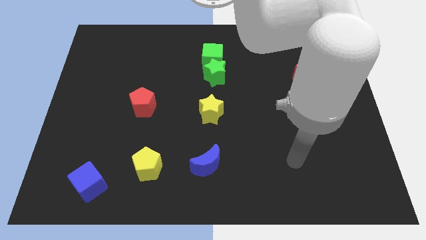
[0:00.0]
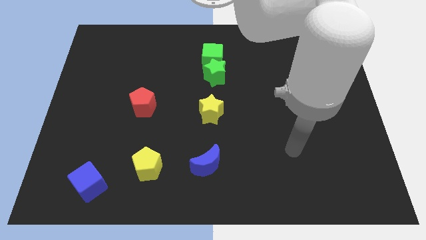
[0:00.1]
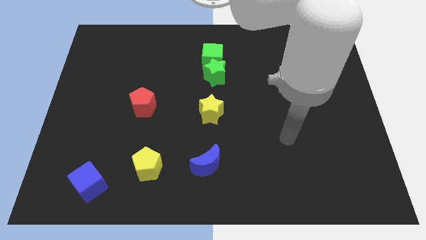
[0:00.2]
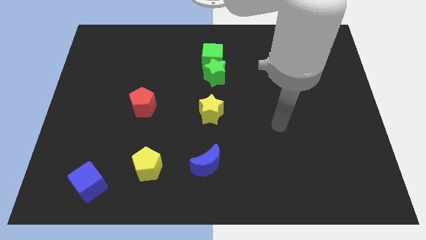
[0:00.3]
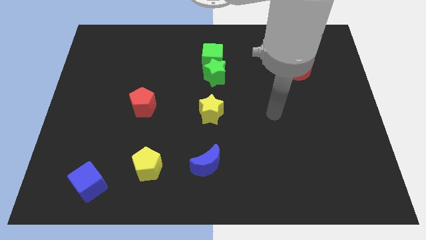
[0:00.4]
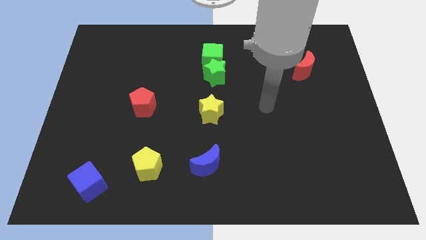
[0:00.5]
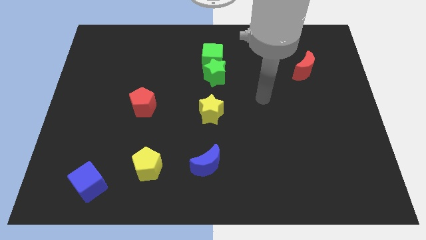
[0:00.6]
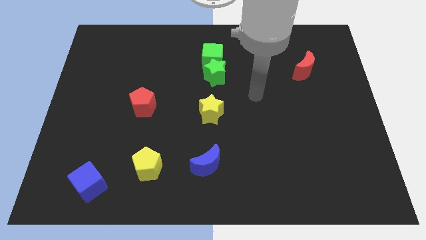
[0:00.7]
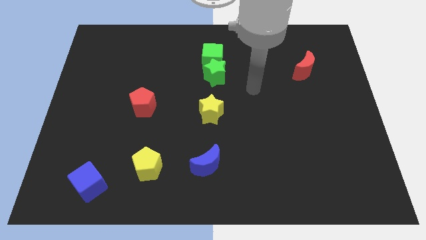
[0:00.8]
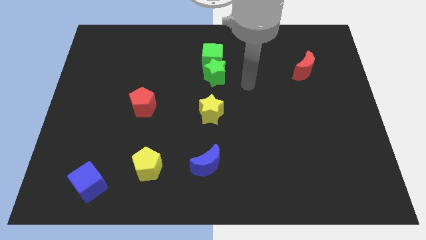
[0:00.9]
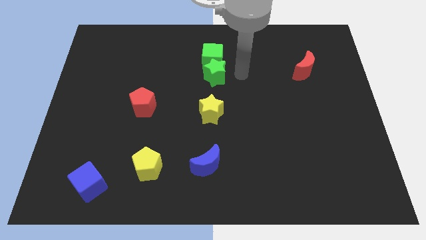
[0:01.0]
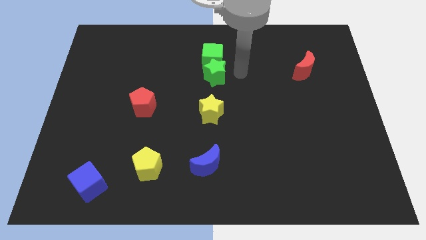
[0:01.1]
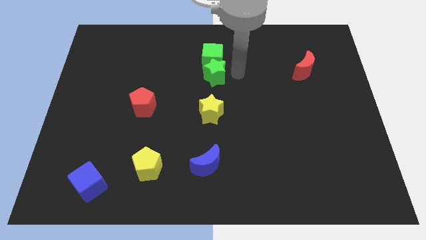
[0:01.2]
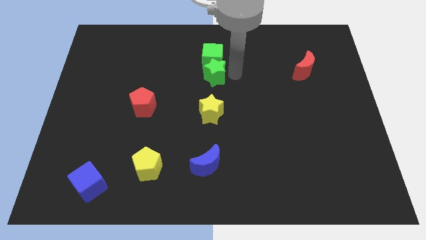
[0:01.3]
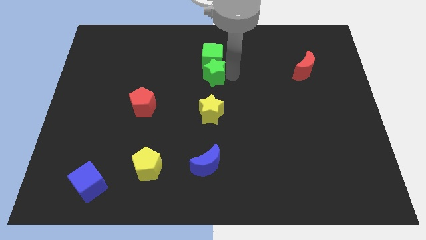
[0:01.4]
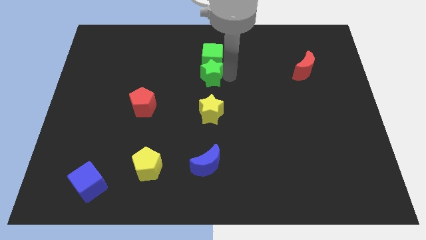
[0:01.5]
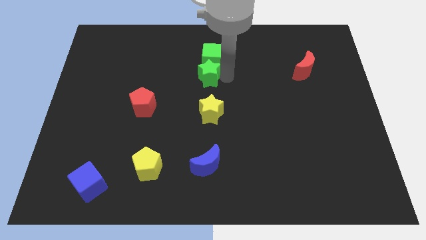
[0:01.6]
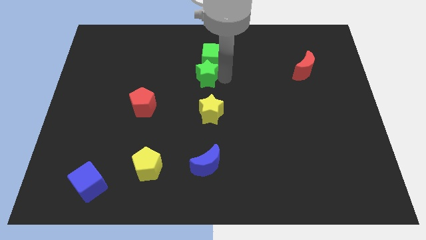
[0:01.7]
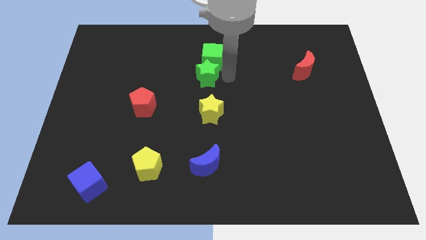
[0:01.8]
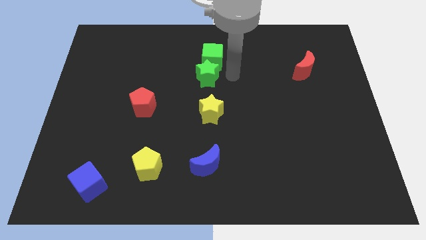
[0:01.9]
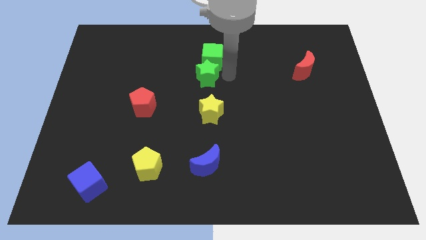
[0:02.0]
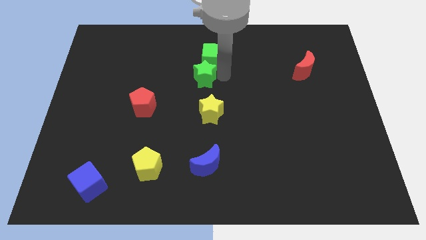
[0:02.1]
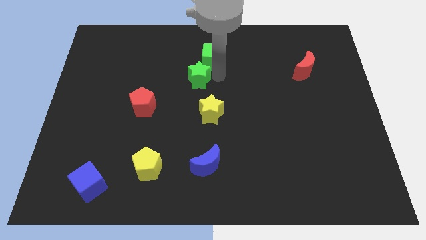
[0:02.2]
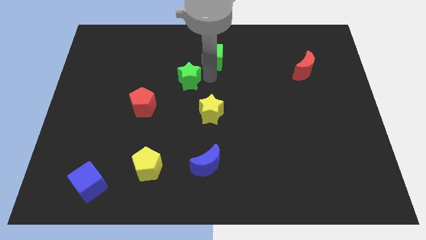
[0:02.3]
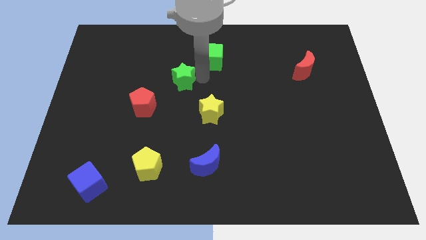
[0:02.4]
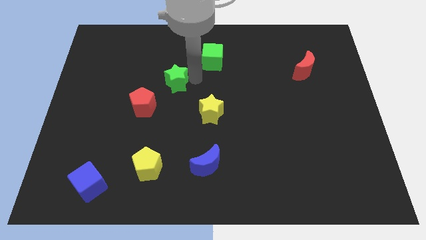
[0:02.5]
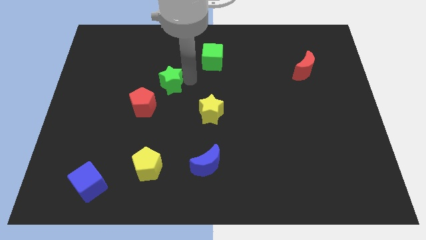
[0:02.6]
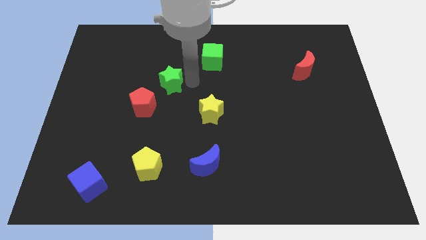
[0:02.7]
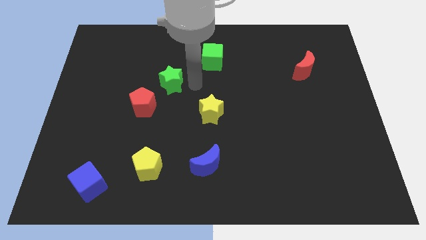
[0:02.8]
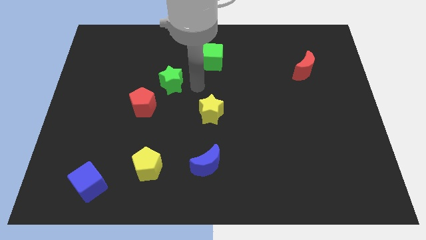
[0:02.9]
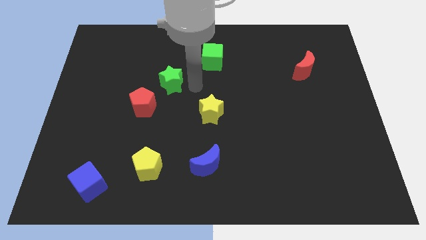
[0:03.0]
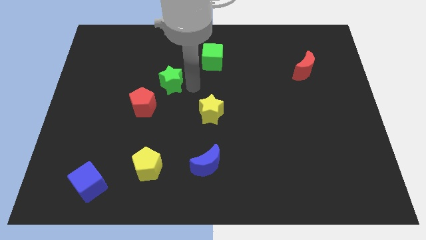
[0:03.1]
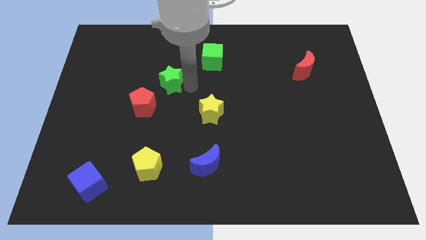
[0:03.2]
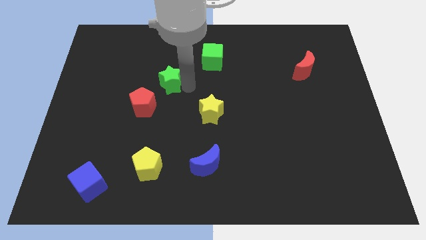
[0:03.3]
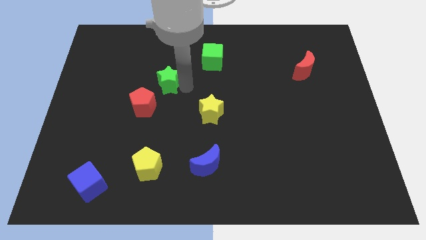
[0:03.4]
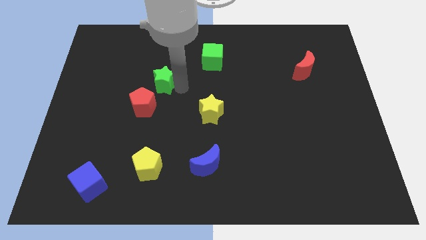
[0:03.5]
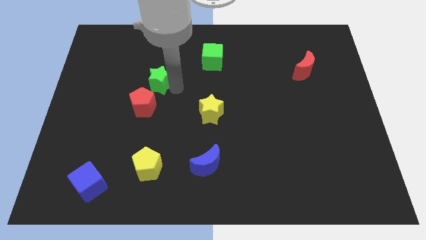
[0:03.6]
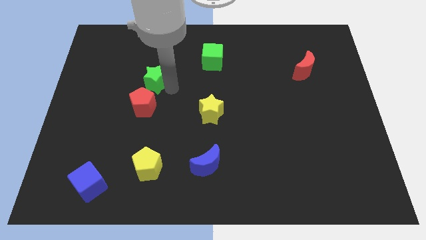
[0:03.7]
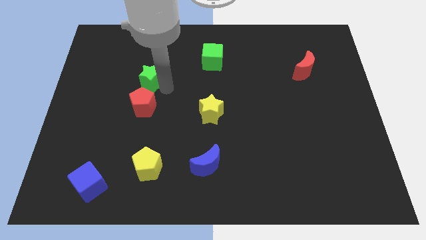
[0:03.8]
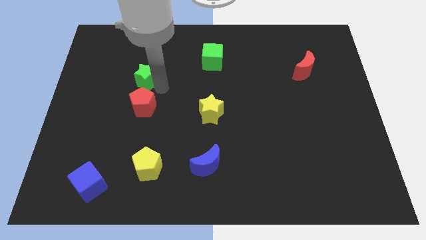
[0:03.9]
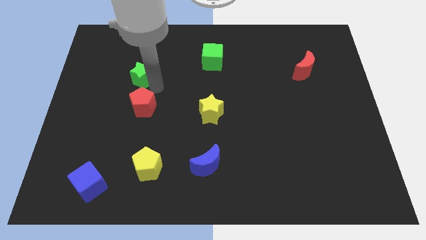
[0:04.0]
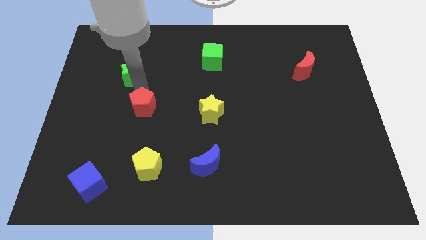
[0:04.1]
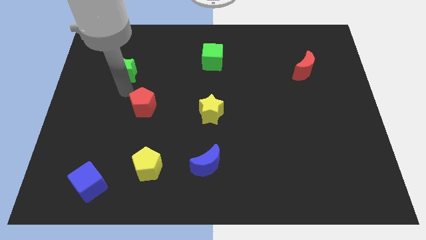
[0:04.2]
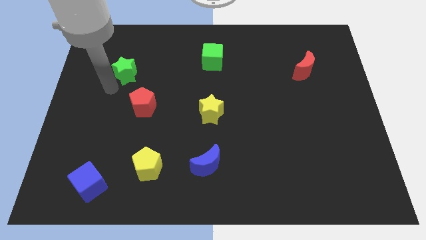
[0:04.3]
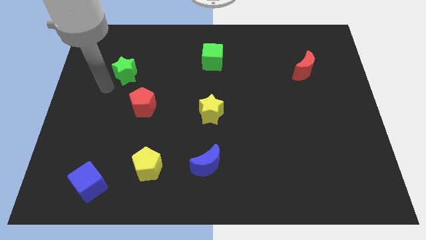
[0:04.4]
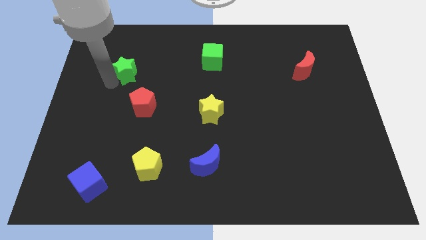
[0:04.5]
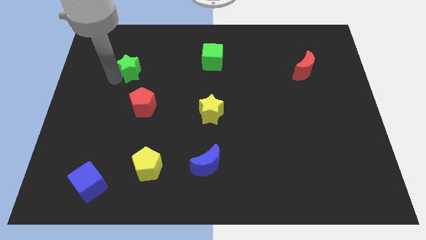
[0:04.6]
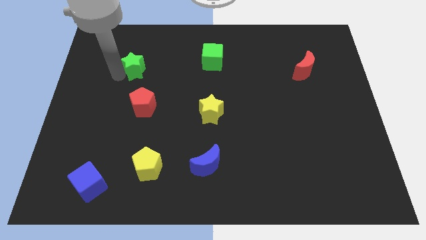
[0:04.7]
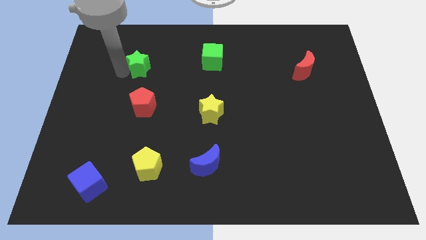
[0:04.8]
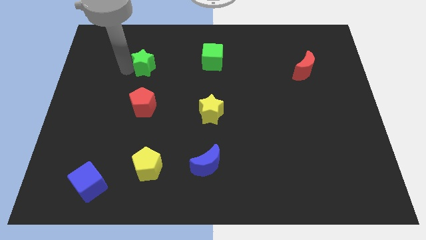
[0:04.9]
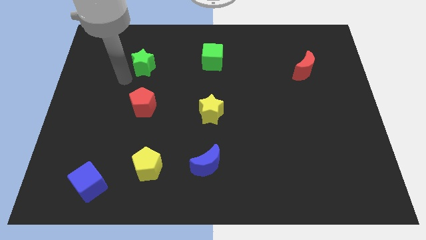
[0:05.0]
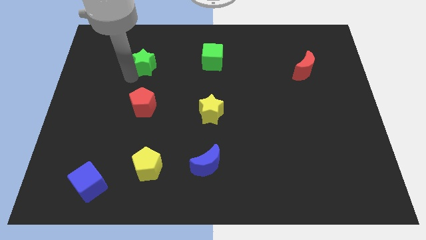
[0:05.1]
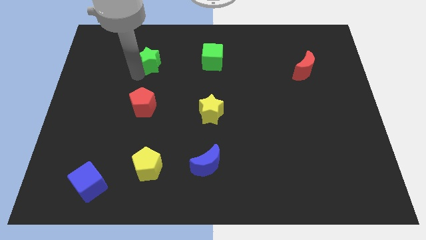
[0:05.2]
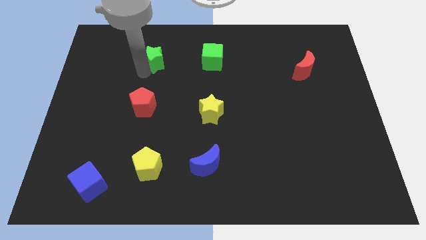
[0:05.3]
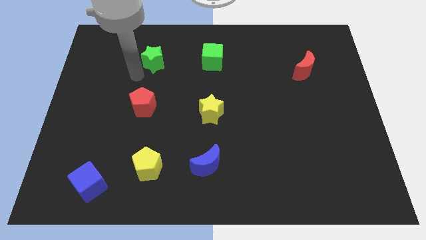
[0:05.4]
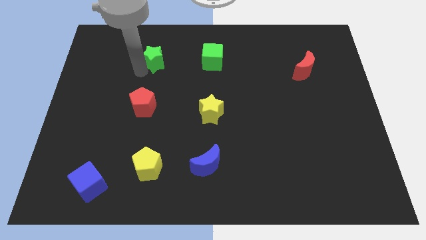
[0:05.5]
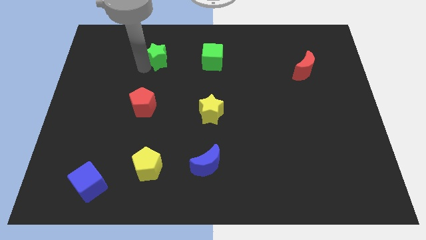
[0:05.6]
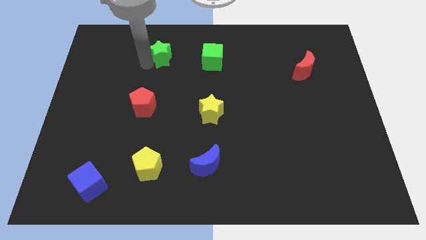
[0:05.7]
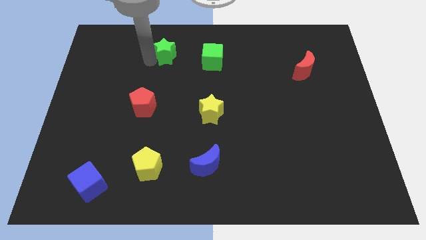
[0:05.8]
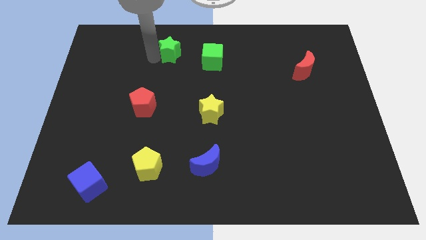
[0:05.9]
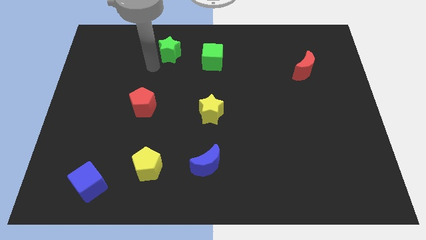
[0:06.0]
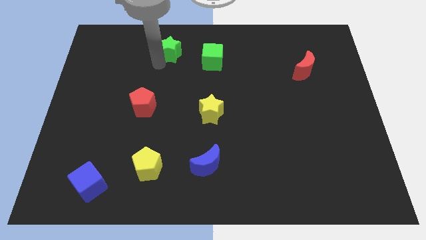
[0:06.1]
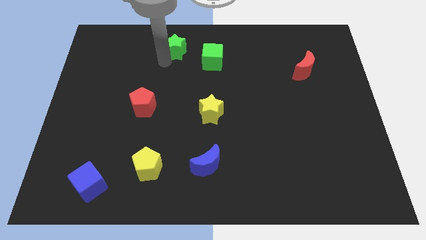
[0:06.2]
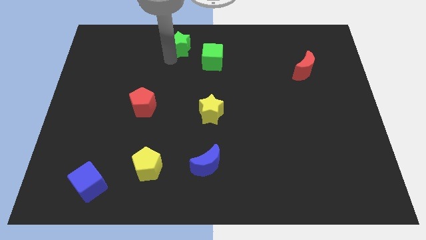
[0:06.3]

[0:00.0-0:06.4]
slide the green star to the top
